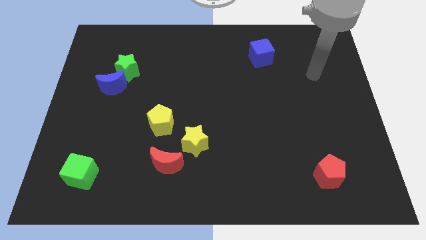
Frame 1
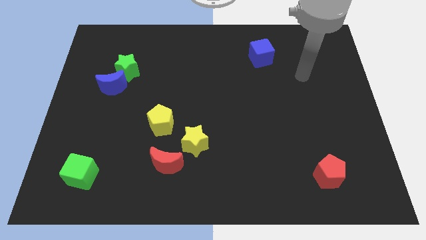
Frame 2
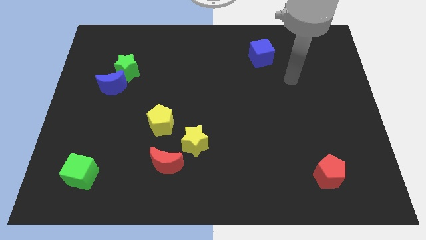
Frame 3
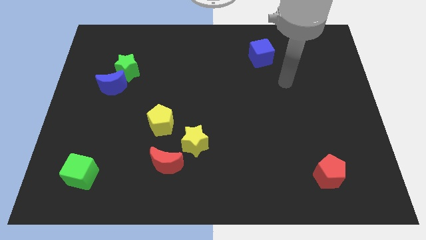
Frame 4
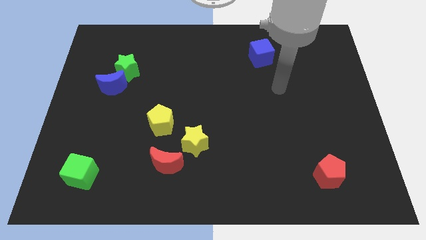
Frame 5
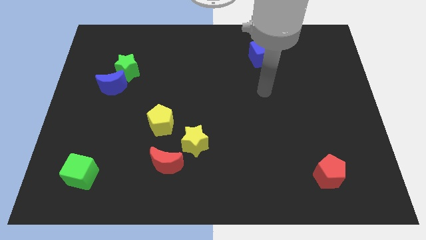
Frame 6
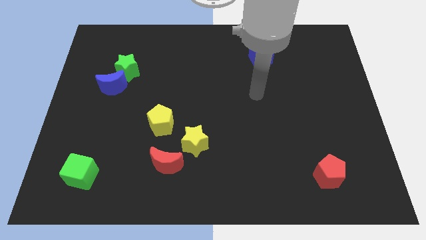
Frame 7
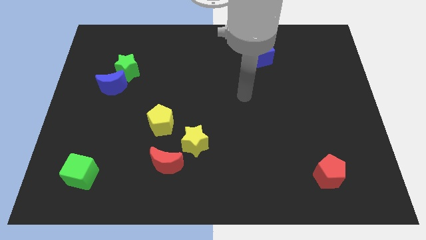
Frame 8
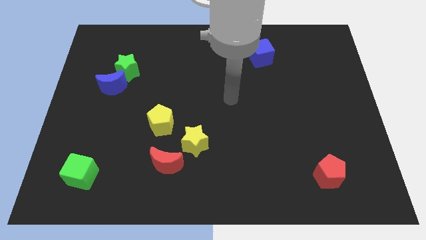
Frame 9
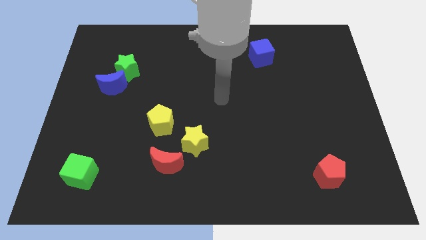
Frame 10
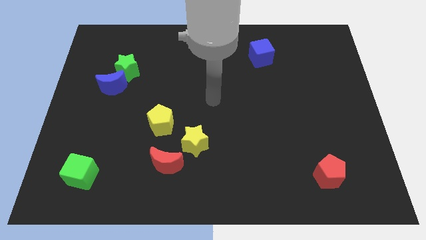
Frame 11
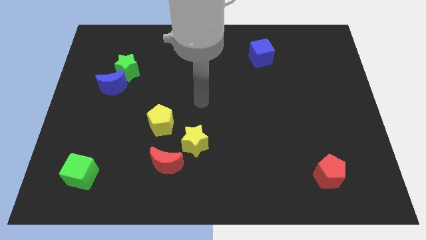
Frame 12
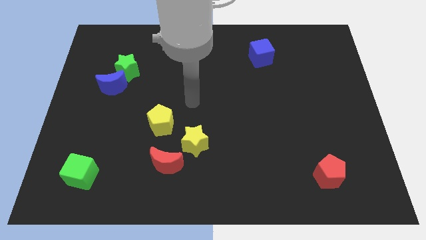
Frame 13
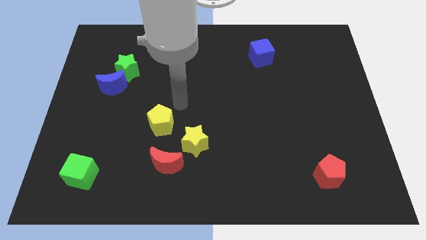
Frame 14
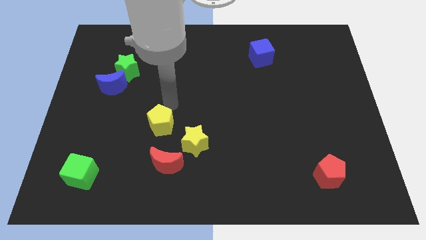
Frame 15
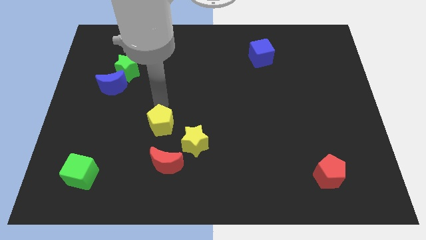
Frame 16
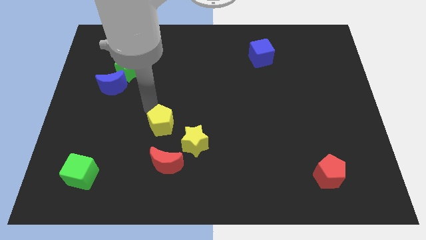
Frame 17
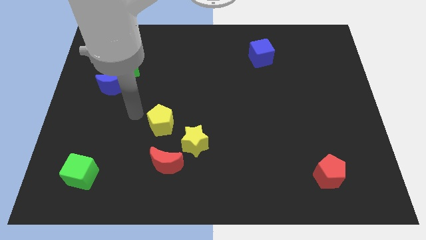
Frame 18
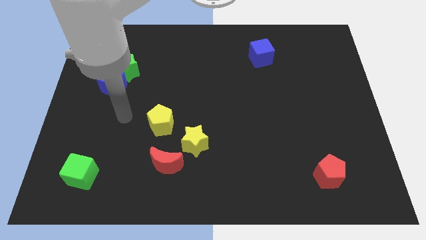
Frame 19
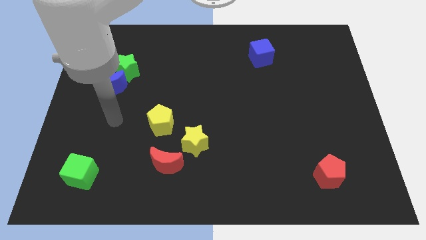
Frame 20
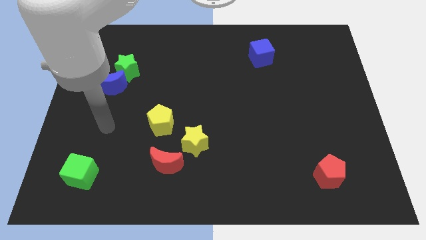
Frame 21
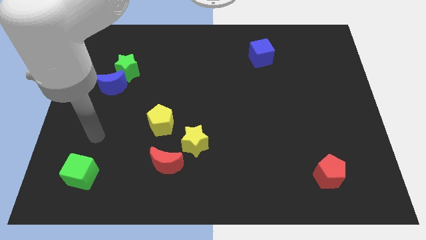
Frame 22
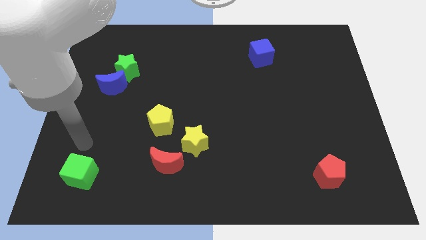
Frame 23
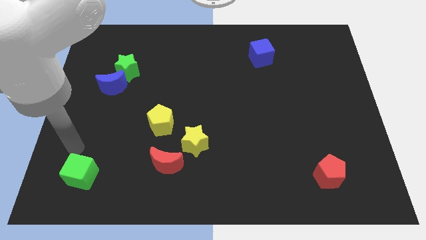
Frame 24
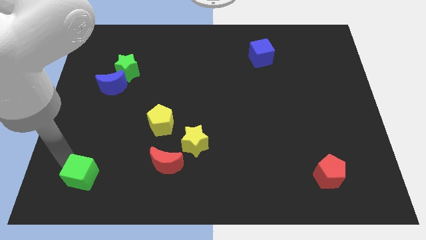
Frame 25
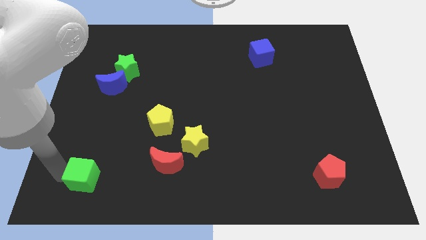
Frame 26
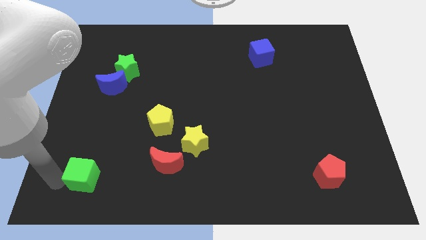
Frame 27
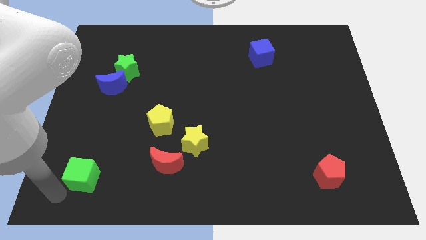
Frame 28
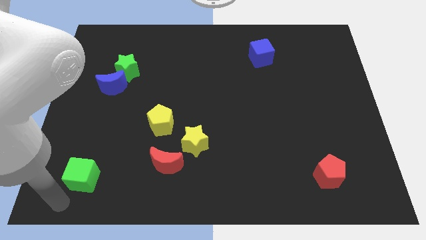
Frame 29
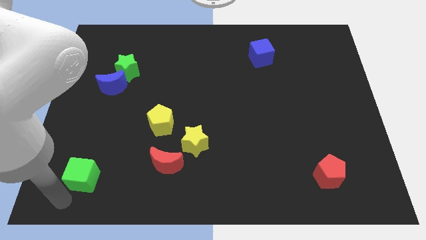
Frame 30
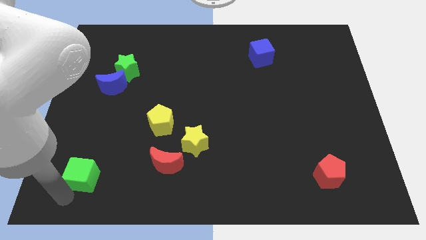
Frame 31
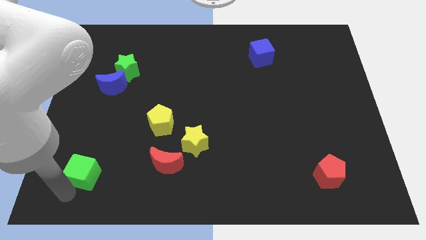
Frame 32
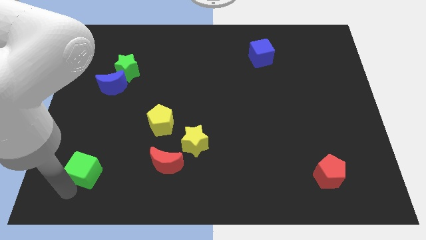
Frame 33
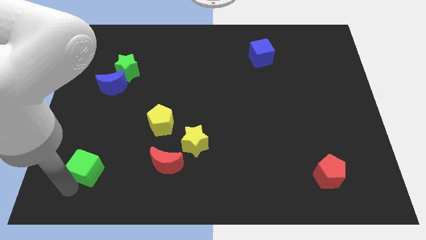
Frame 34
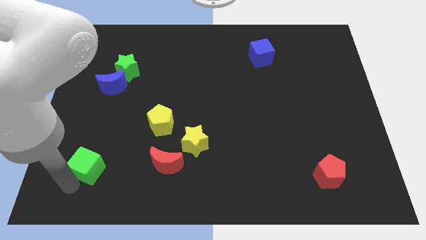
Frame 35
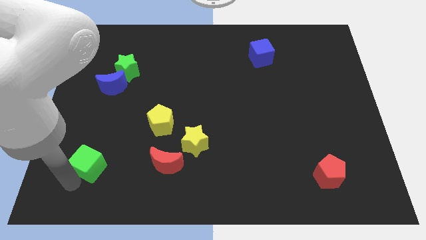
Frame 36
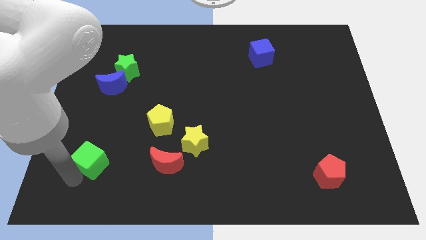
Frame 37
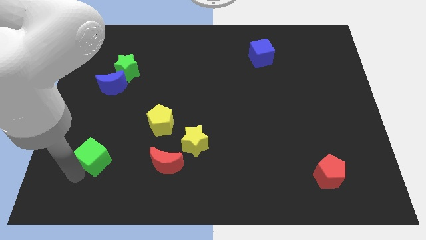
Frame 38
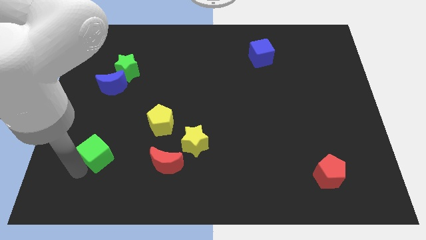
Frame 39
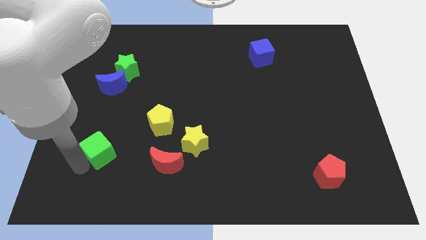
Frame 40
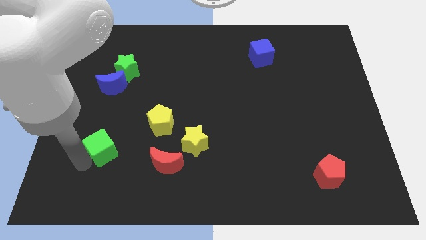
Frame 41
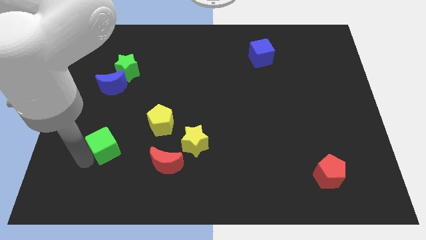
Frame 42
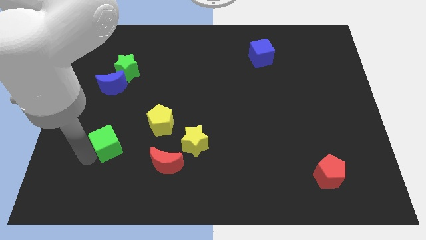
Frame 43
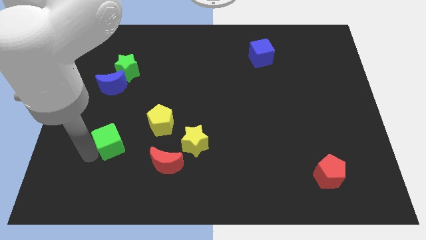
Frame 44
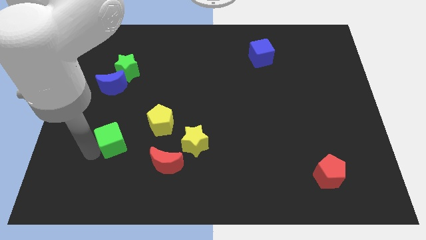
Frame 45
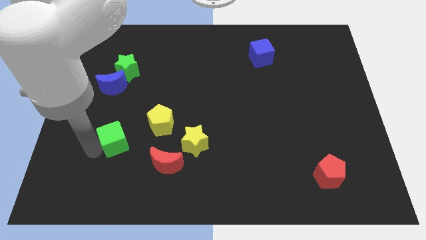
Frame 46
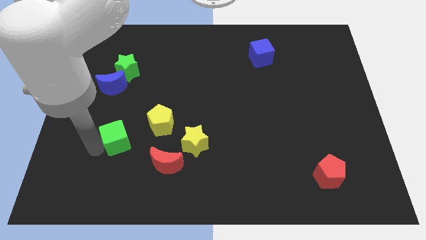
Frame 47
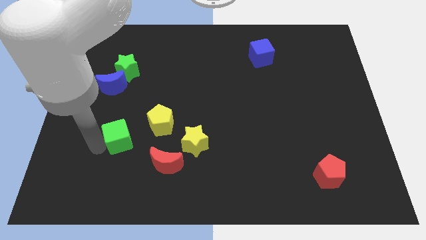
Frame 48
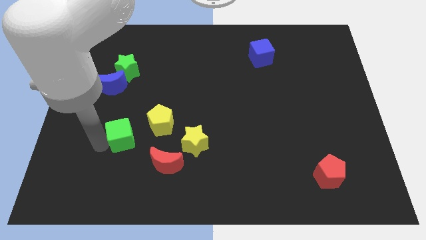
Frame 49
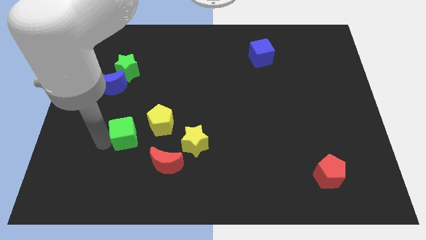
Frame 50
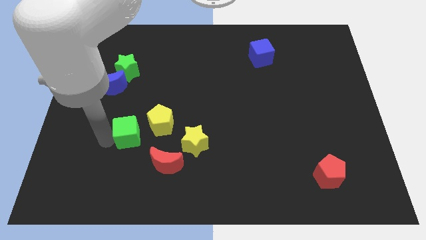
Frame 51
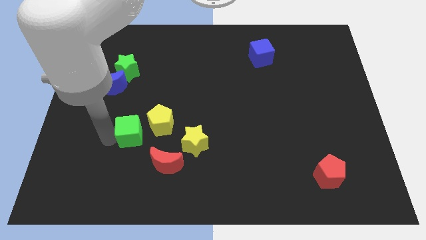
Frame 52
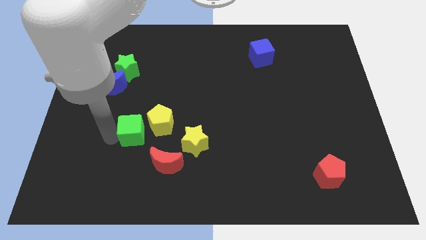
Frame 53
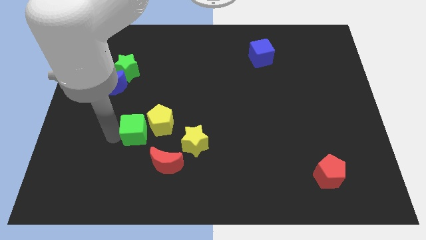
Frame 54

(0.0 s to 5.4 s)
slide the green cube towards the yellow pentagon

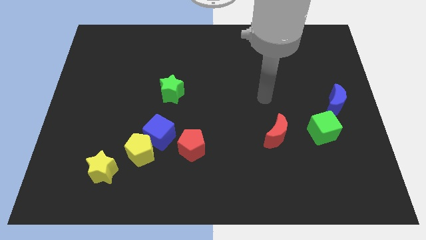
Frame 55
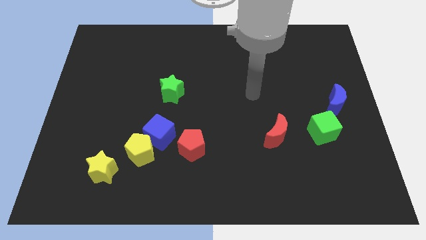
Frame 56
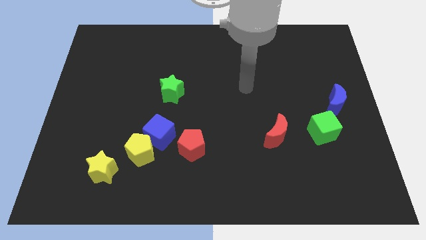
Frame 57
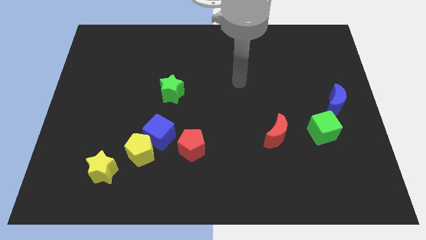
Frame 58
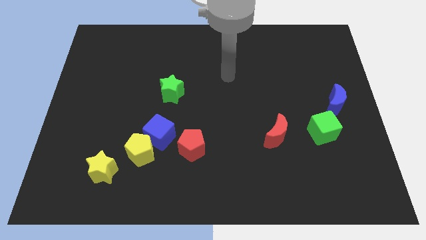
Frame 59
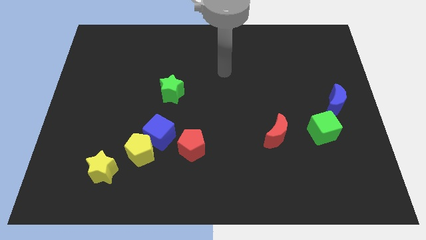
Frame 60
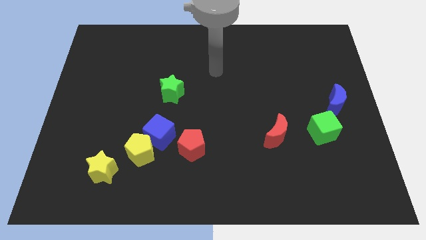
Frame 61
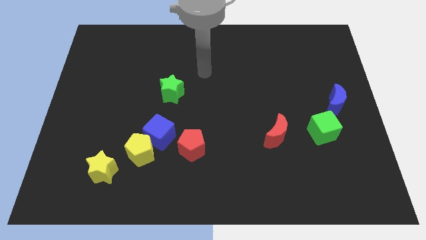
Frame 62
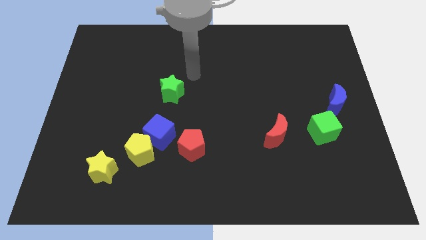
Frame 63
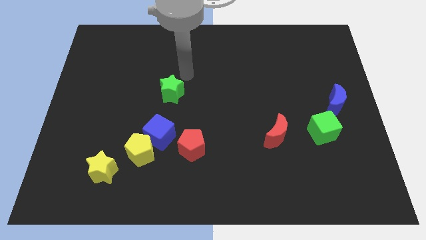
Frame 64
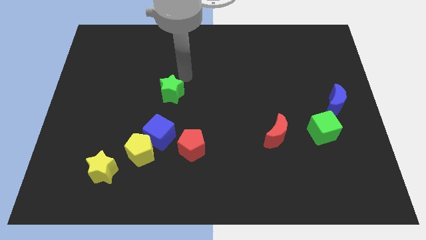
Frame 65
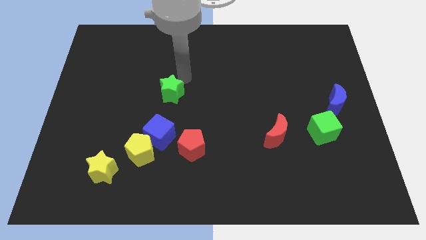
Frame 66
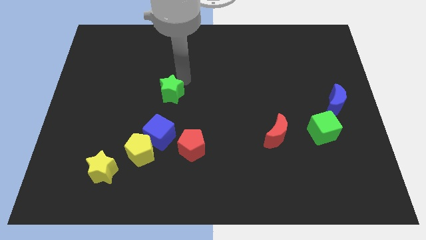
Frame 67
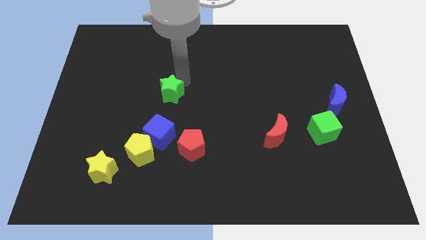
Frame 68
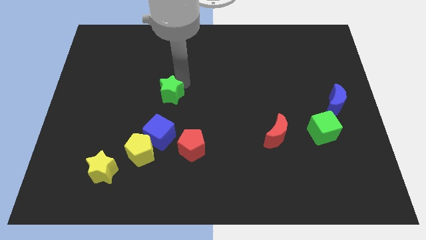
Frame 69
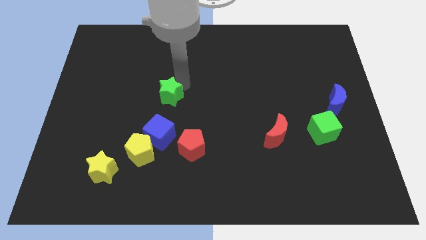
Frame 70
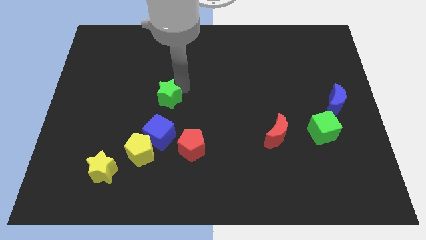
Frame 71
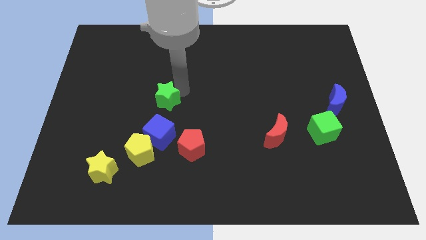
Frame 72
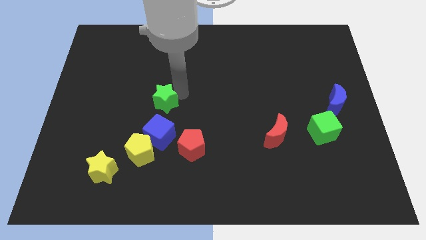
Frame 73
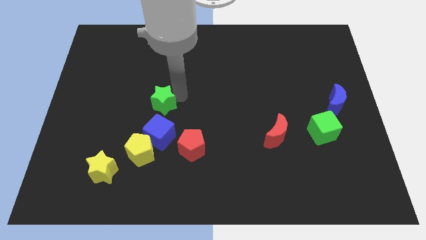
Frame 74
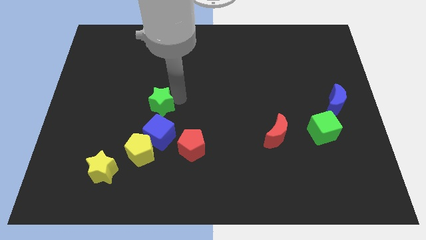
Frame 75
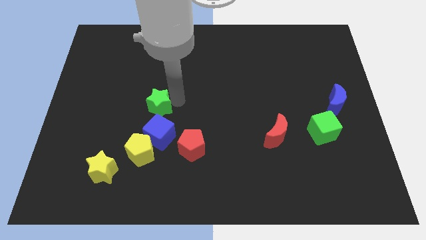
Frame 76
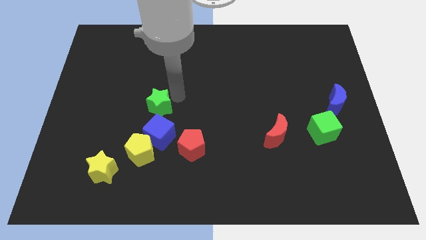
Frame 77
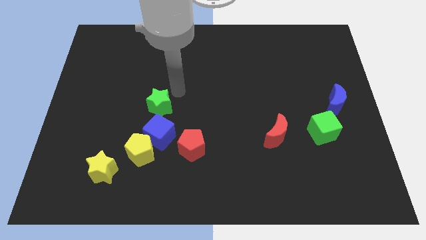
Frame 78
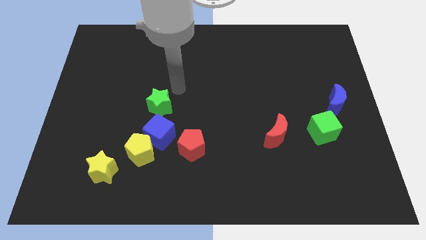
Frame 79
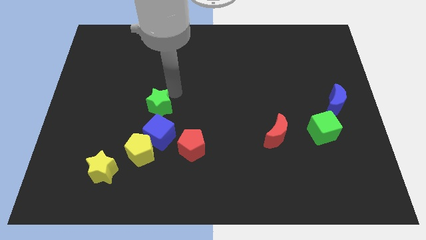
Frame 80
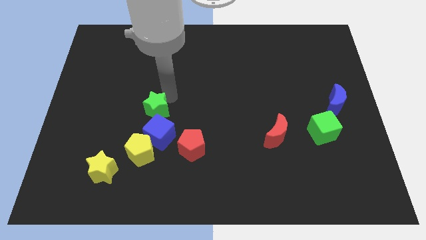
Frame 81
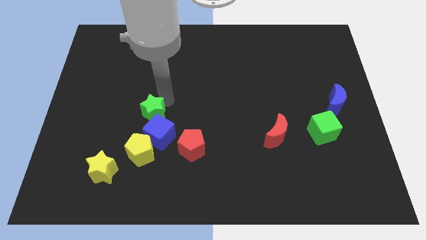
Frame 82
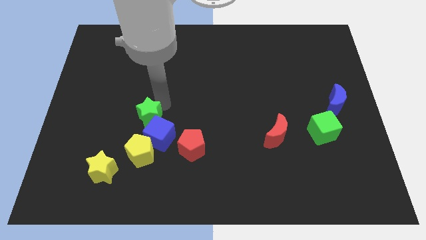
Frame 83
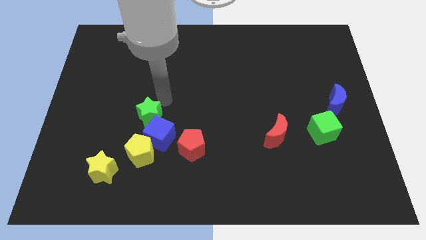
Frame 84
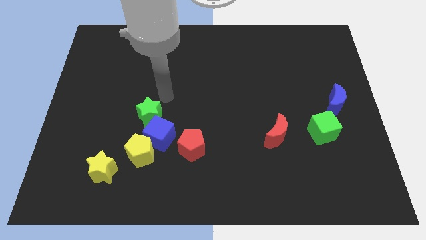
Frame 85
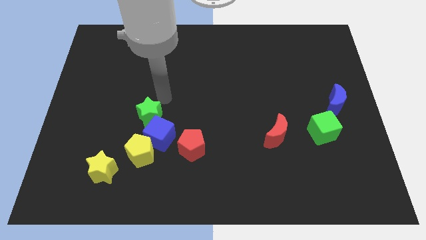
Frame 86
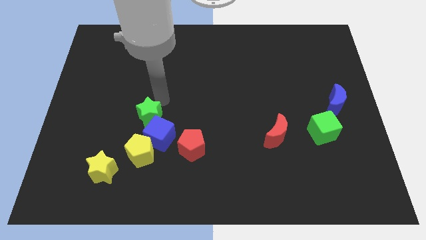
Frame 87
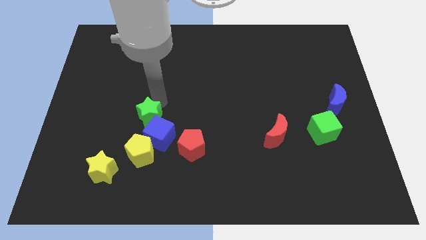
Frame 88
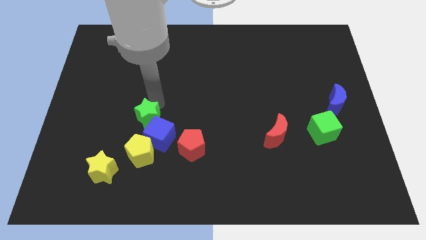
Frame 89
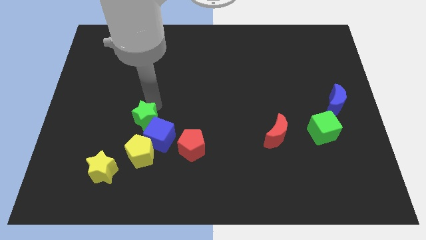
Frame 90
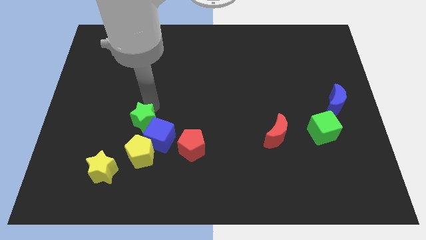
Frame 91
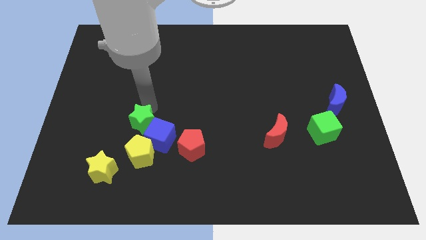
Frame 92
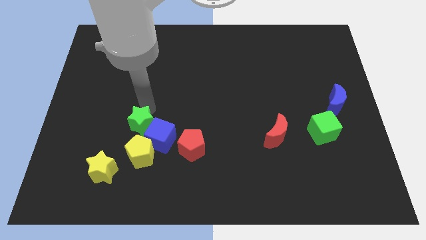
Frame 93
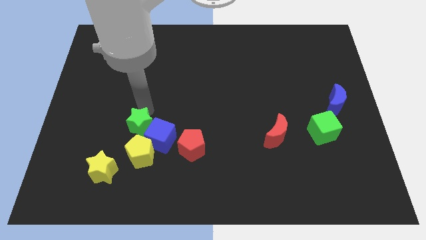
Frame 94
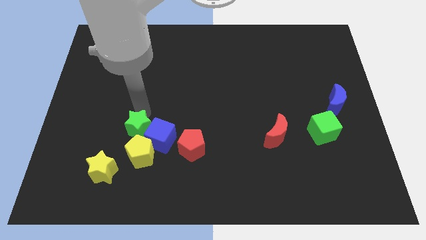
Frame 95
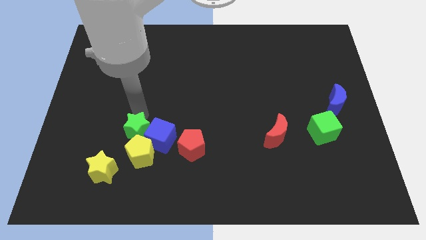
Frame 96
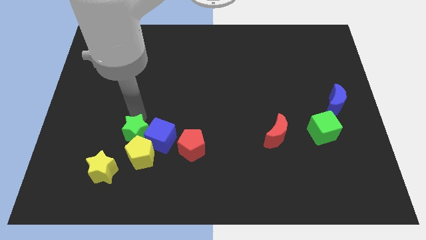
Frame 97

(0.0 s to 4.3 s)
move the green star towards the yellow pentagon
